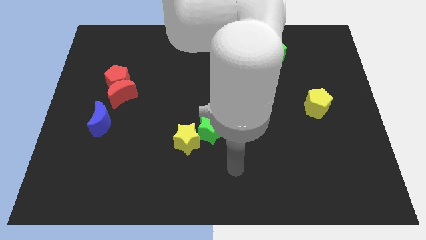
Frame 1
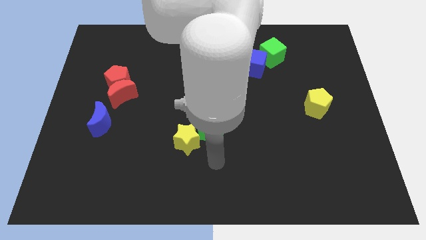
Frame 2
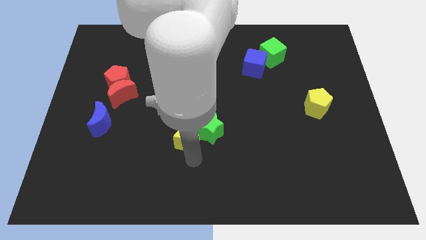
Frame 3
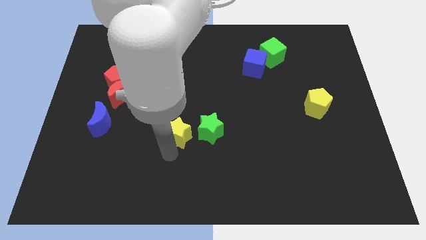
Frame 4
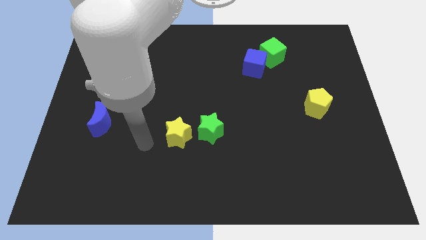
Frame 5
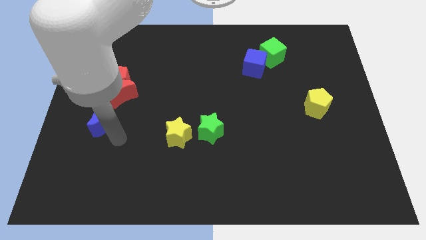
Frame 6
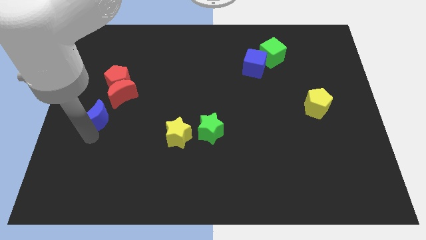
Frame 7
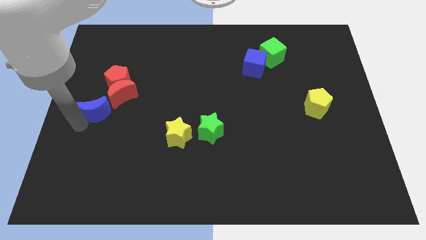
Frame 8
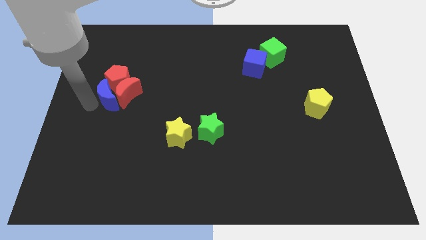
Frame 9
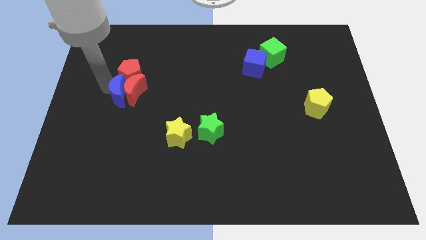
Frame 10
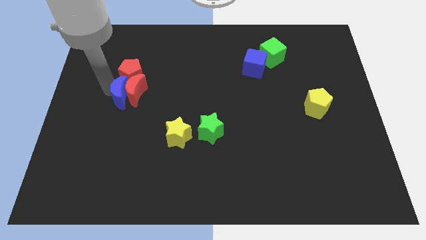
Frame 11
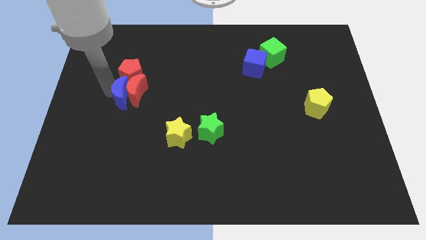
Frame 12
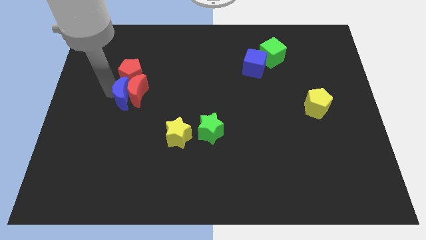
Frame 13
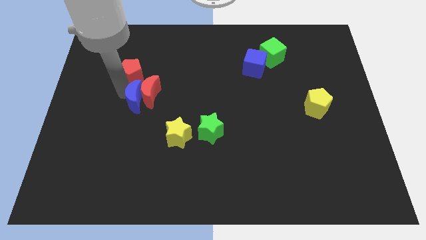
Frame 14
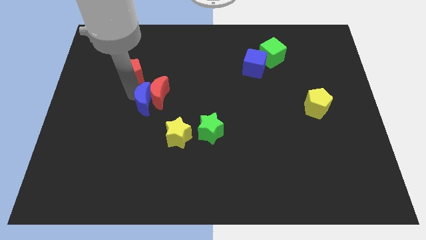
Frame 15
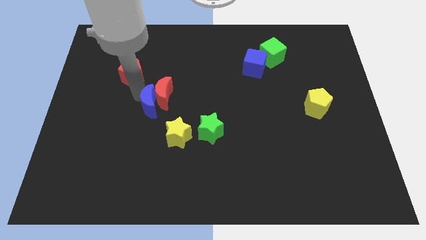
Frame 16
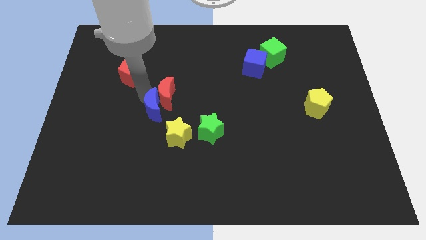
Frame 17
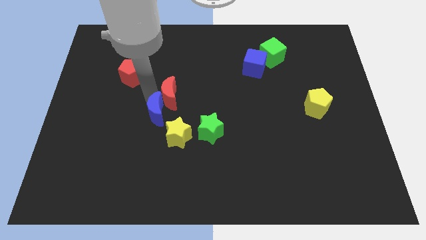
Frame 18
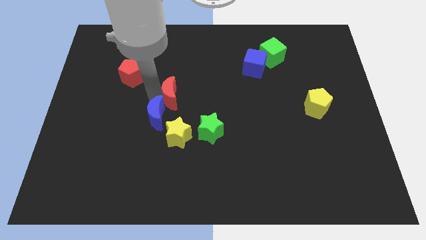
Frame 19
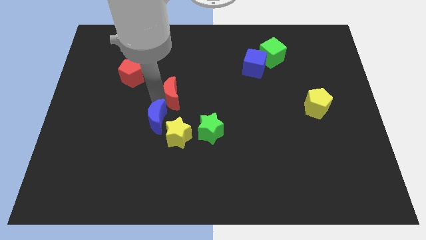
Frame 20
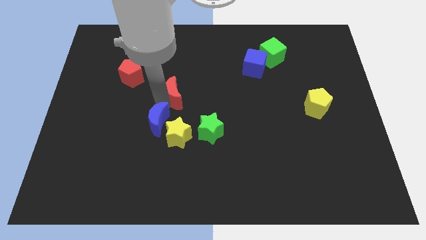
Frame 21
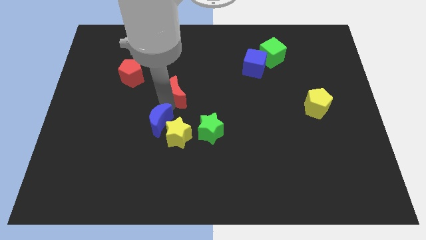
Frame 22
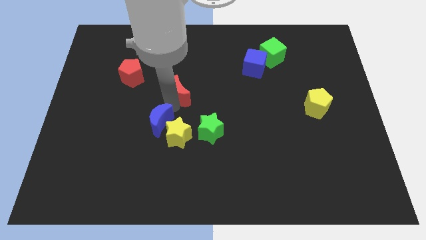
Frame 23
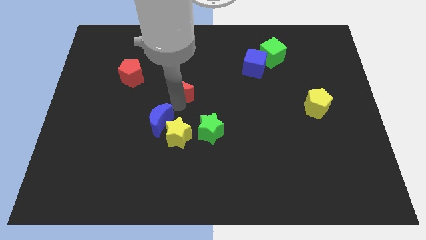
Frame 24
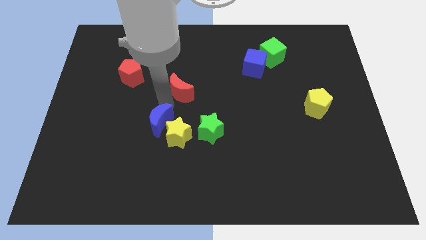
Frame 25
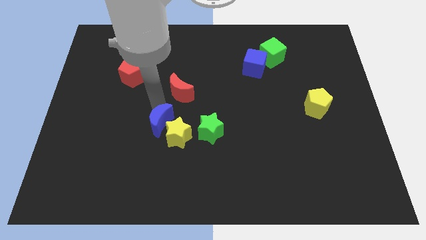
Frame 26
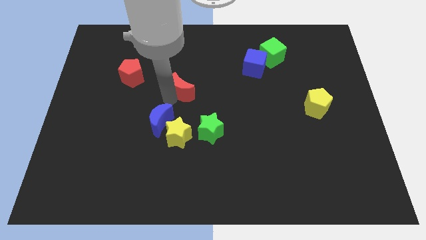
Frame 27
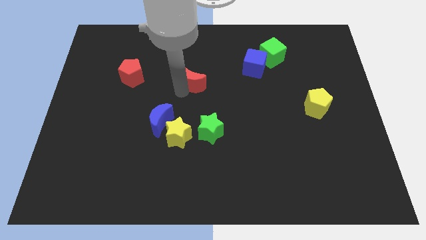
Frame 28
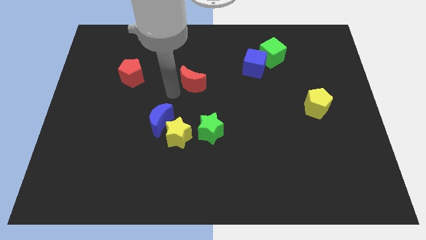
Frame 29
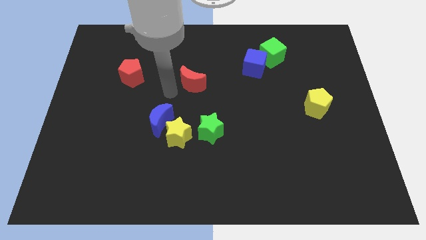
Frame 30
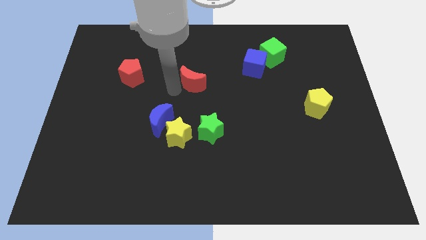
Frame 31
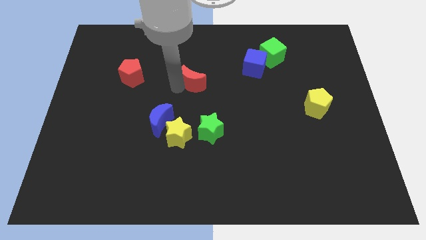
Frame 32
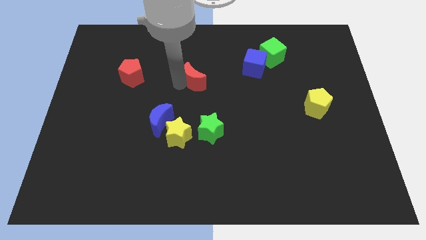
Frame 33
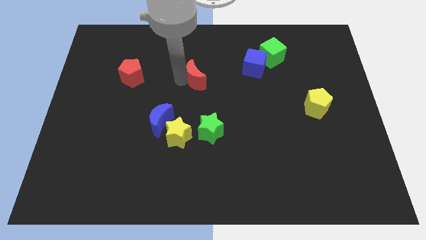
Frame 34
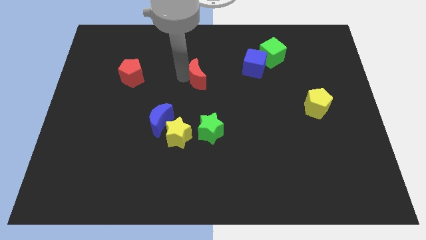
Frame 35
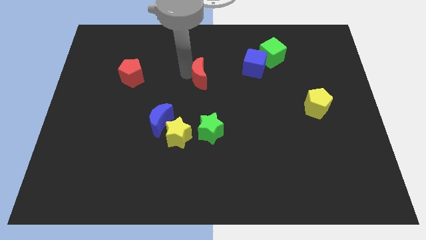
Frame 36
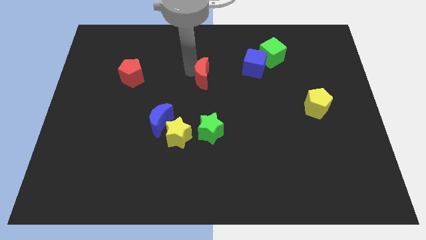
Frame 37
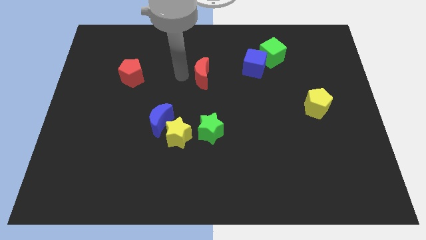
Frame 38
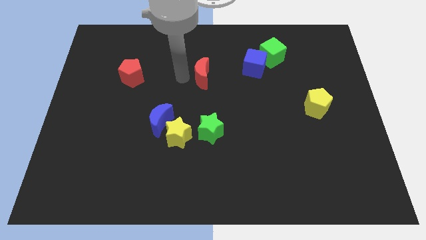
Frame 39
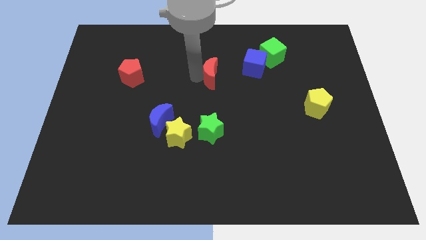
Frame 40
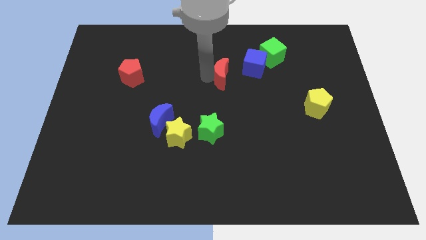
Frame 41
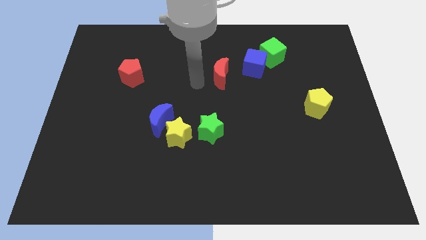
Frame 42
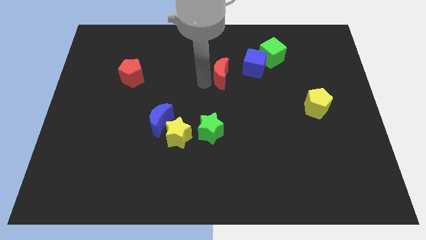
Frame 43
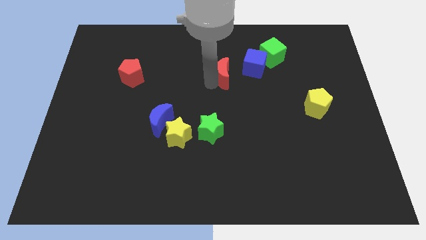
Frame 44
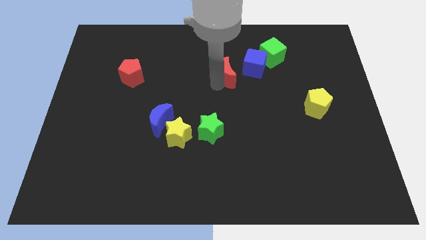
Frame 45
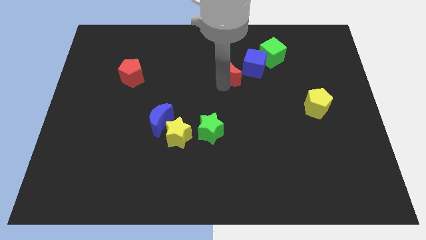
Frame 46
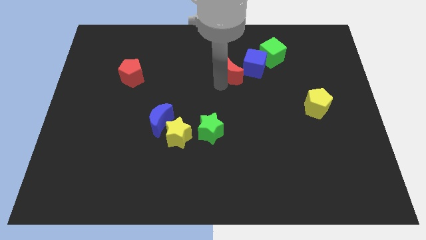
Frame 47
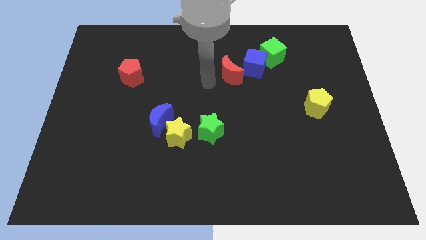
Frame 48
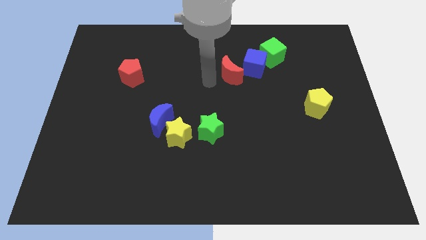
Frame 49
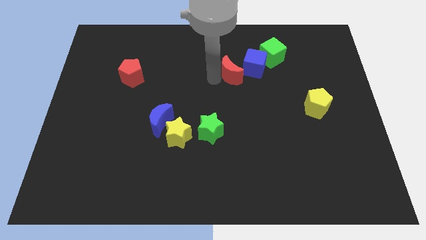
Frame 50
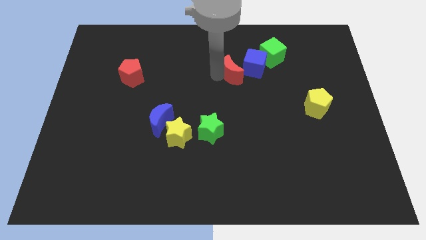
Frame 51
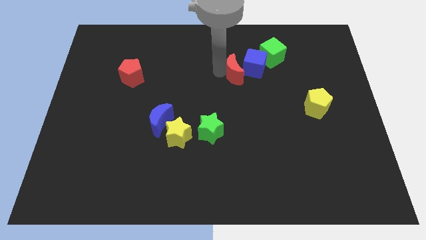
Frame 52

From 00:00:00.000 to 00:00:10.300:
slide the red moon close to the blue cube
